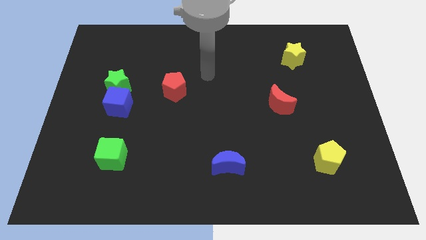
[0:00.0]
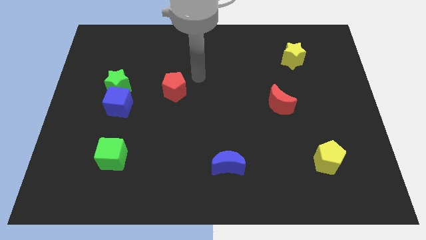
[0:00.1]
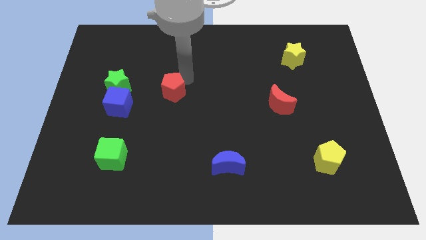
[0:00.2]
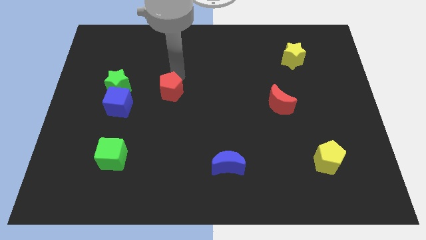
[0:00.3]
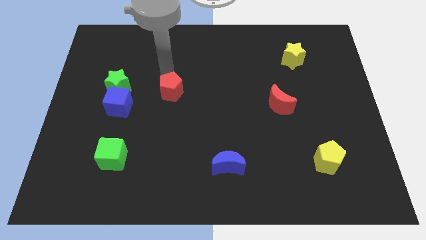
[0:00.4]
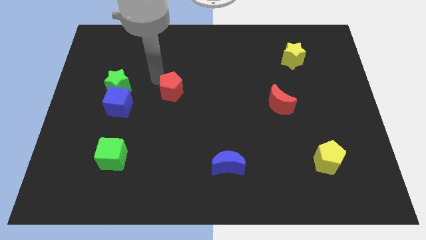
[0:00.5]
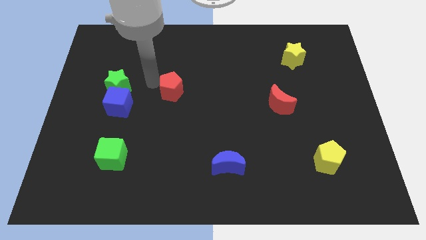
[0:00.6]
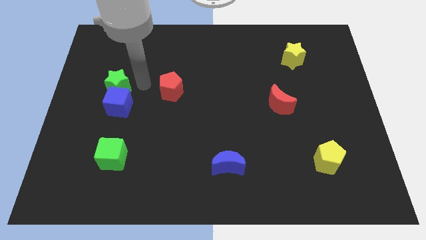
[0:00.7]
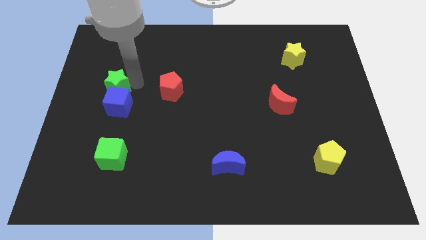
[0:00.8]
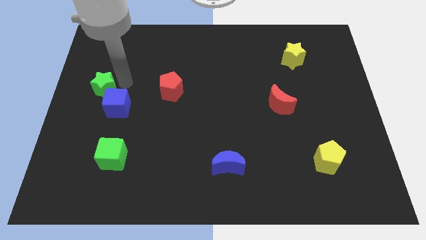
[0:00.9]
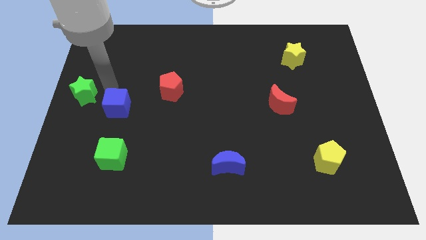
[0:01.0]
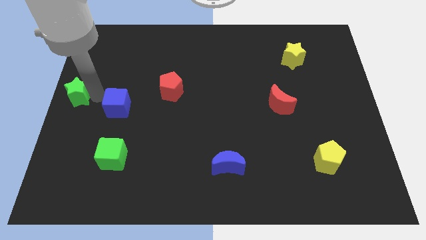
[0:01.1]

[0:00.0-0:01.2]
separate the blue cube from the green star

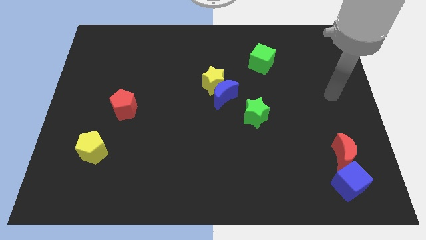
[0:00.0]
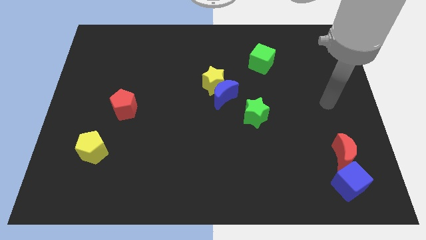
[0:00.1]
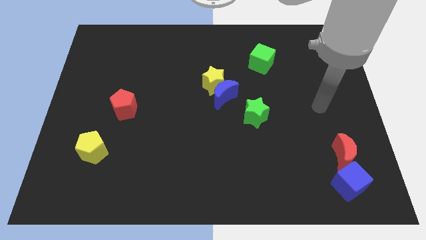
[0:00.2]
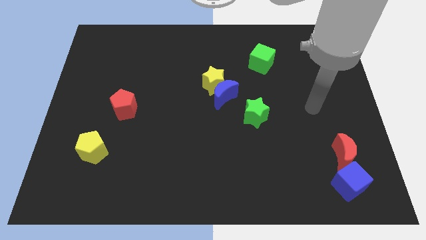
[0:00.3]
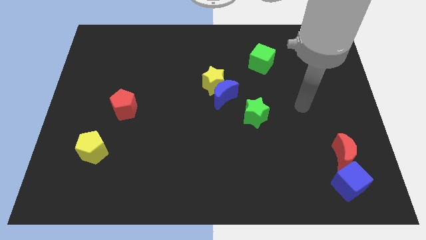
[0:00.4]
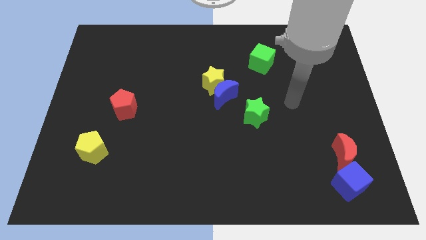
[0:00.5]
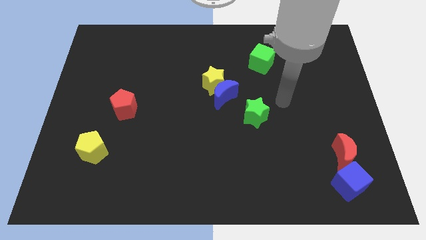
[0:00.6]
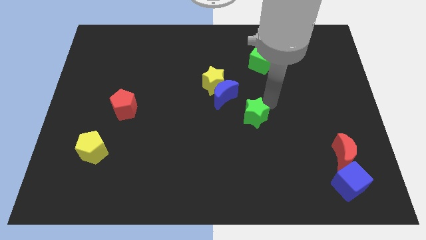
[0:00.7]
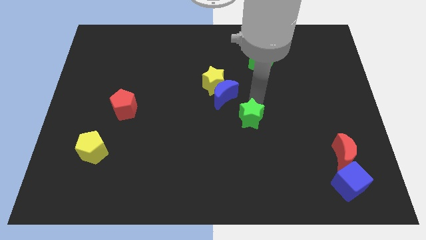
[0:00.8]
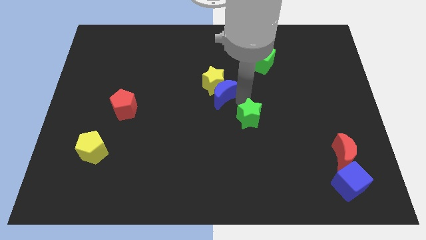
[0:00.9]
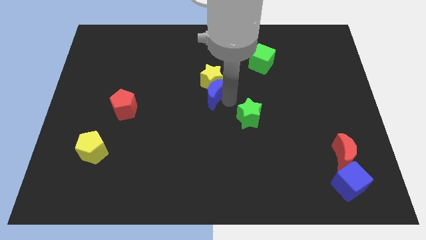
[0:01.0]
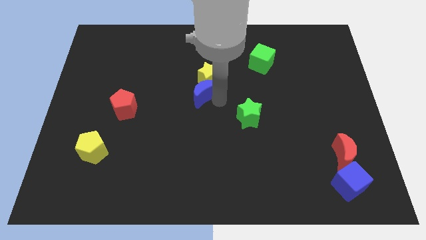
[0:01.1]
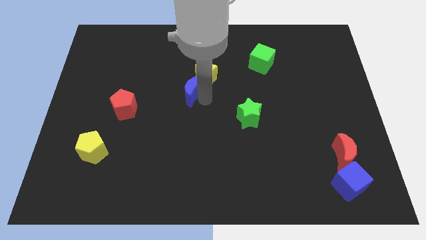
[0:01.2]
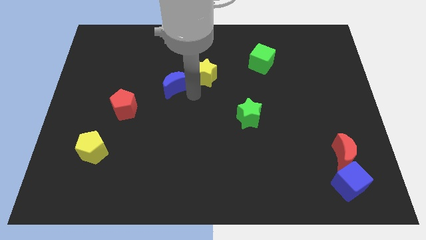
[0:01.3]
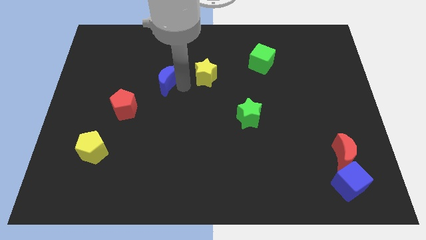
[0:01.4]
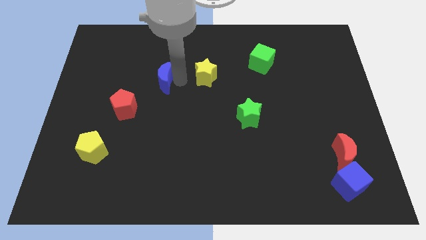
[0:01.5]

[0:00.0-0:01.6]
move the yellow star away from the blue moon

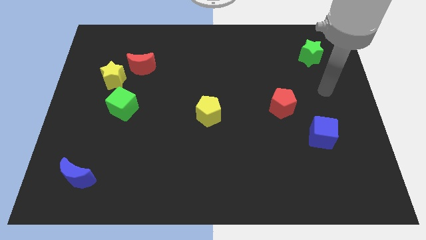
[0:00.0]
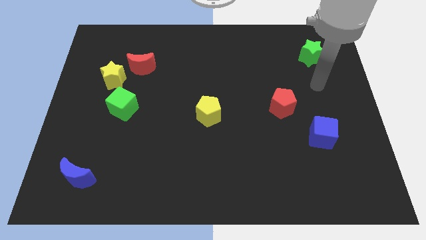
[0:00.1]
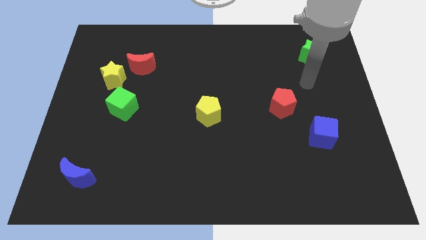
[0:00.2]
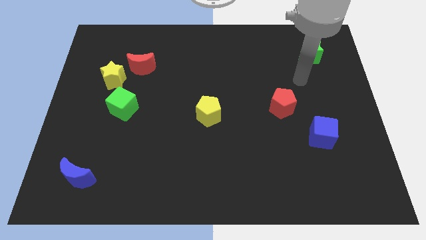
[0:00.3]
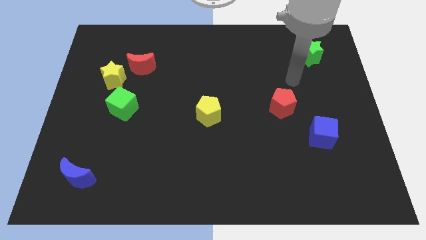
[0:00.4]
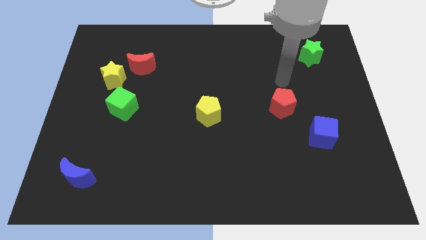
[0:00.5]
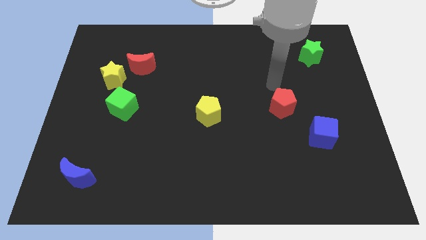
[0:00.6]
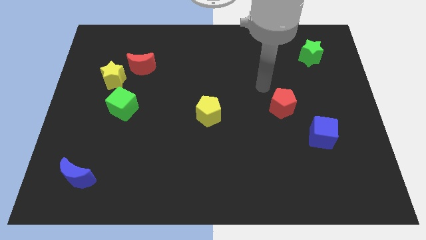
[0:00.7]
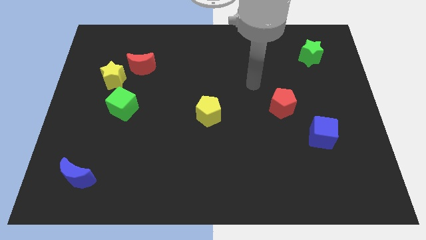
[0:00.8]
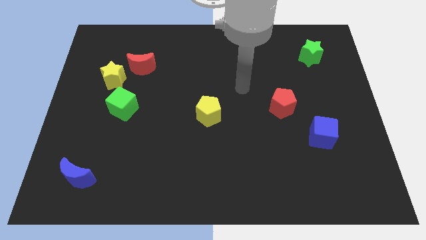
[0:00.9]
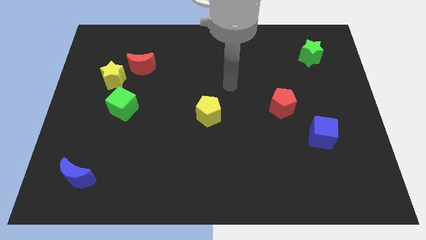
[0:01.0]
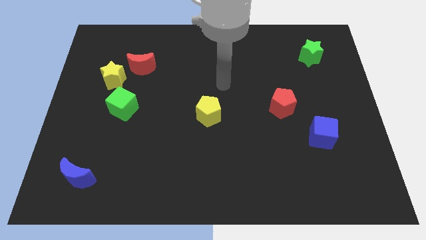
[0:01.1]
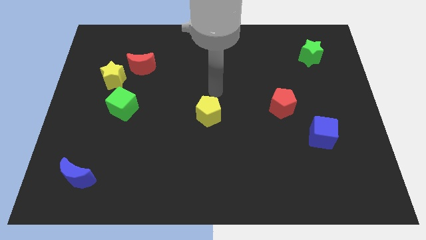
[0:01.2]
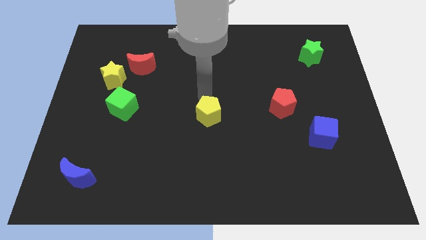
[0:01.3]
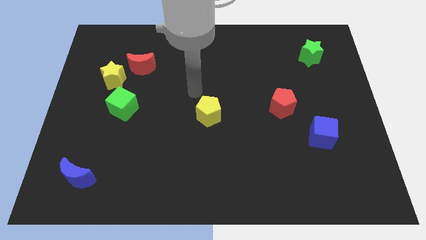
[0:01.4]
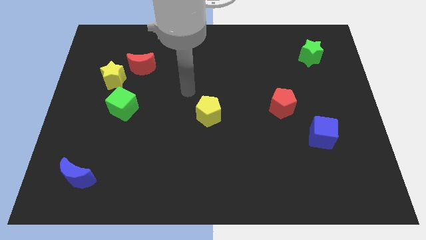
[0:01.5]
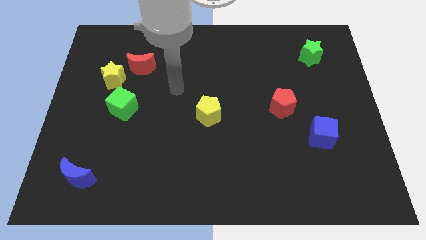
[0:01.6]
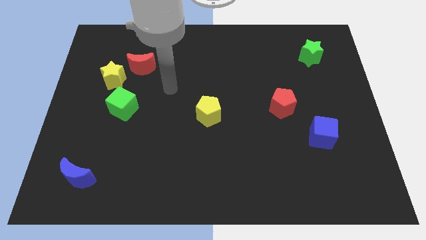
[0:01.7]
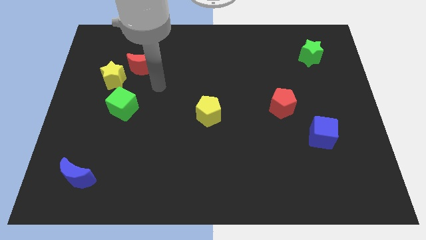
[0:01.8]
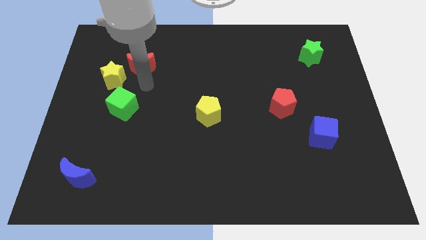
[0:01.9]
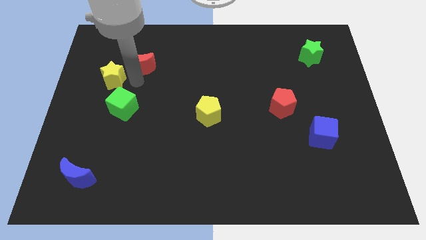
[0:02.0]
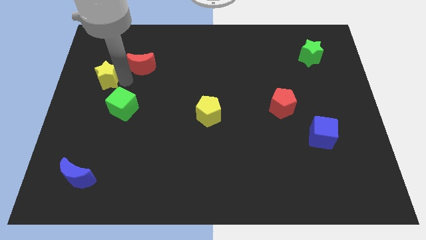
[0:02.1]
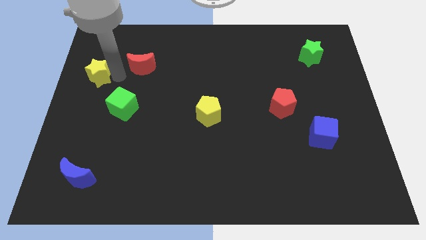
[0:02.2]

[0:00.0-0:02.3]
separate the red moon from the yellow star

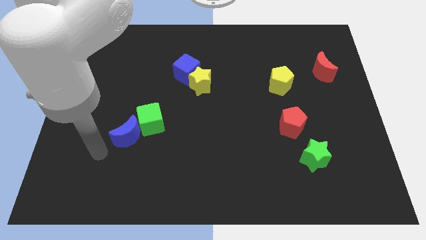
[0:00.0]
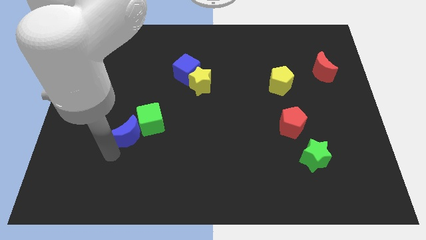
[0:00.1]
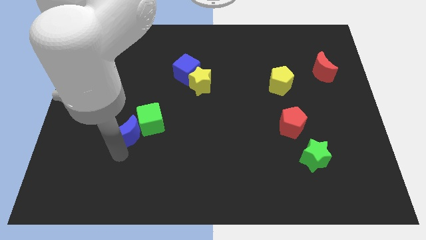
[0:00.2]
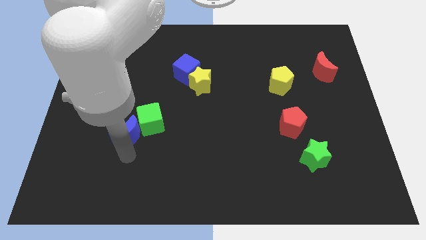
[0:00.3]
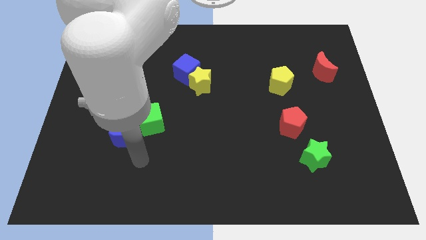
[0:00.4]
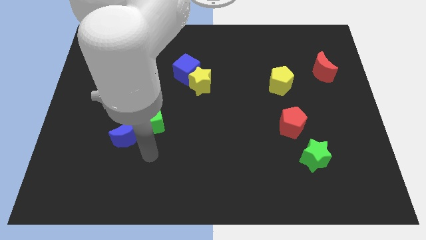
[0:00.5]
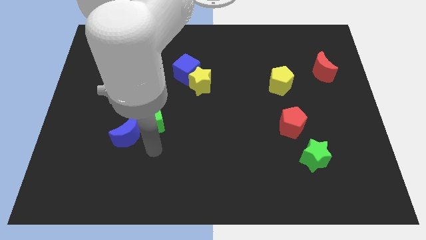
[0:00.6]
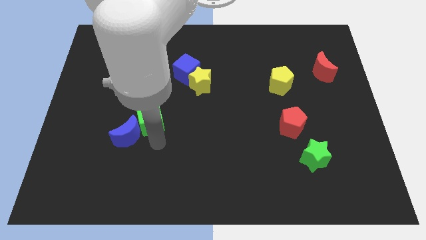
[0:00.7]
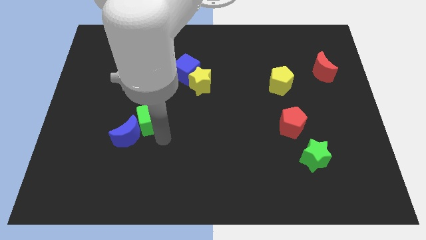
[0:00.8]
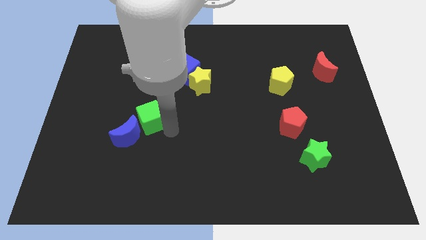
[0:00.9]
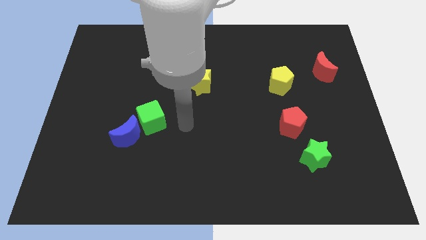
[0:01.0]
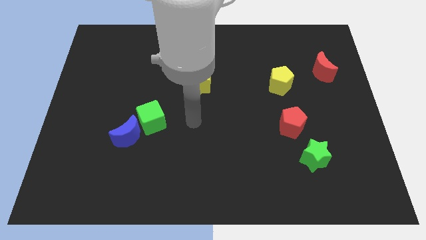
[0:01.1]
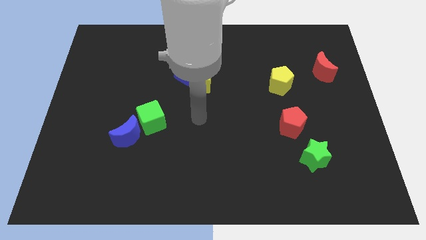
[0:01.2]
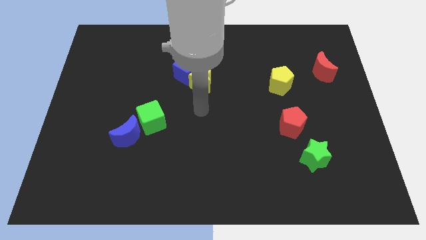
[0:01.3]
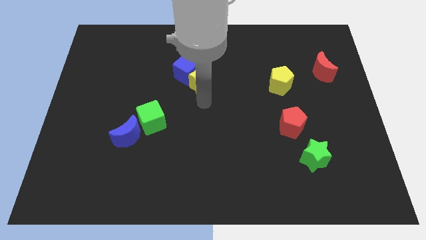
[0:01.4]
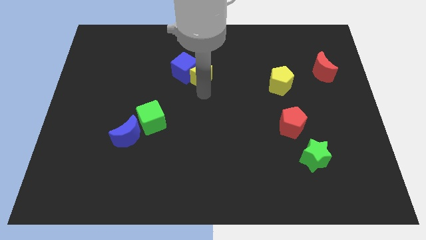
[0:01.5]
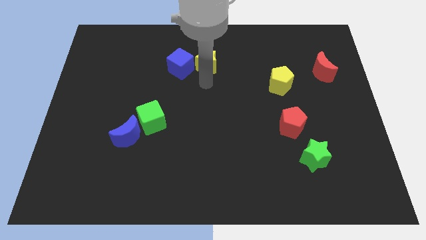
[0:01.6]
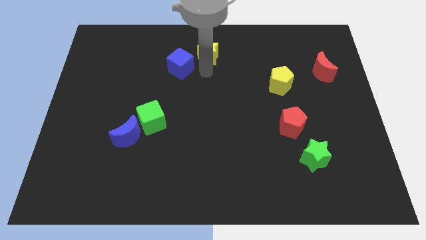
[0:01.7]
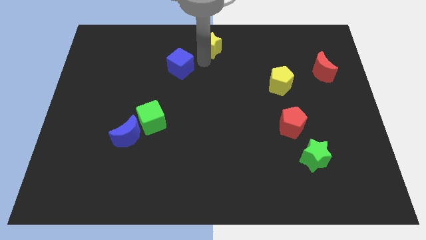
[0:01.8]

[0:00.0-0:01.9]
move the blue cube away from the yellow star

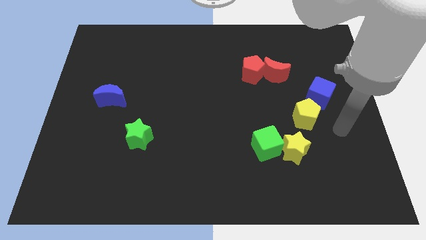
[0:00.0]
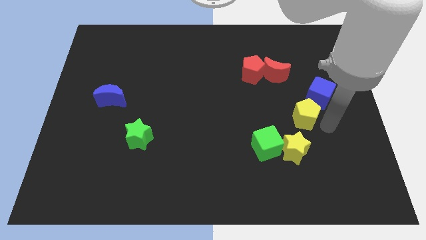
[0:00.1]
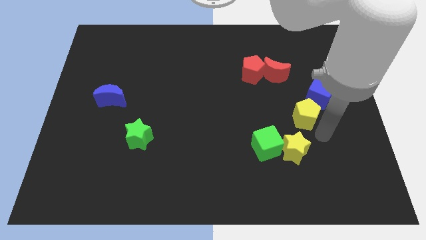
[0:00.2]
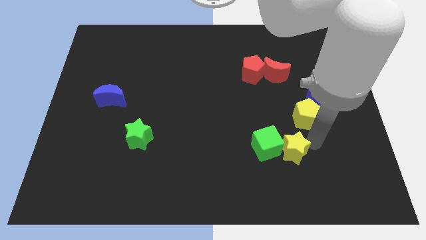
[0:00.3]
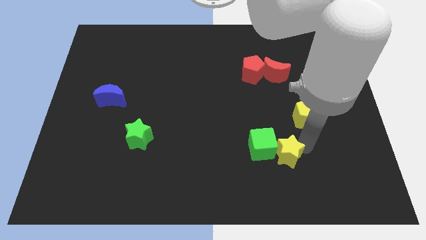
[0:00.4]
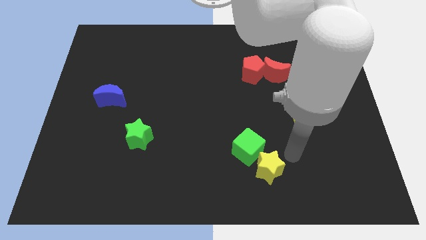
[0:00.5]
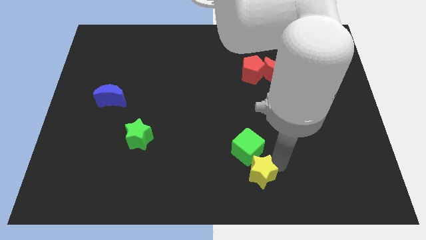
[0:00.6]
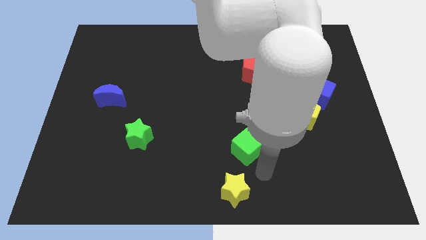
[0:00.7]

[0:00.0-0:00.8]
pull the green cube apart from the yellow star

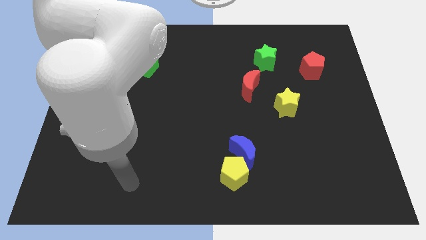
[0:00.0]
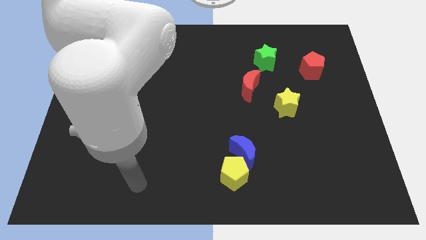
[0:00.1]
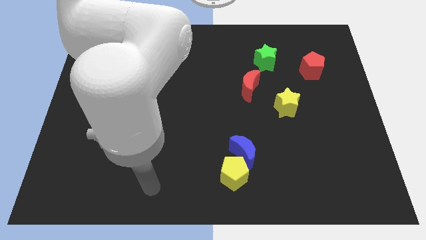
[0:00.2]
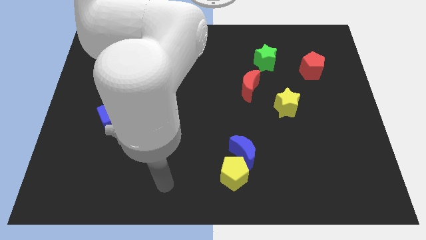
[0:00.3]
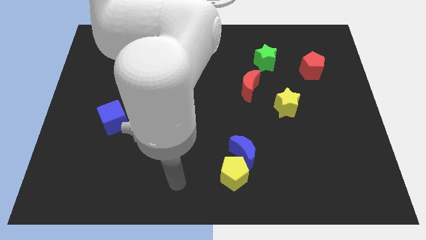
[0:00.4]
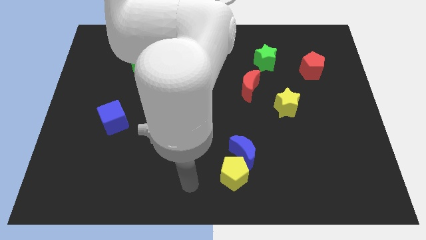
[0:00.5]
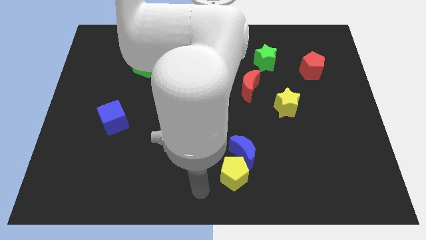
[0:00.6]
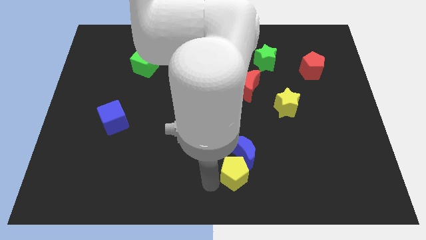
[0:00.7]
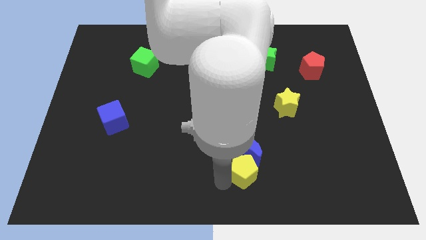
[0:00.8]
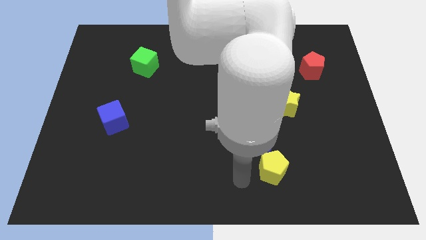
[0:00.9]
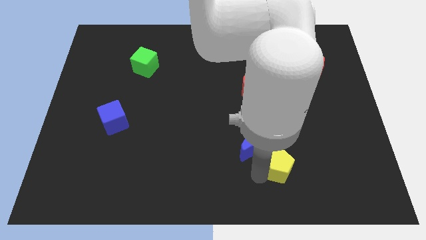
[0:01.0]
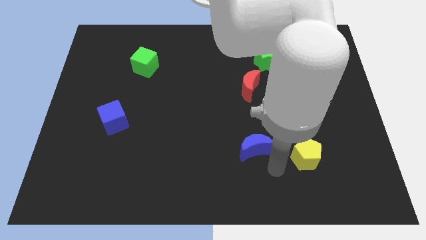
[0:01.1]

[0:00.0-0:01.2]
move the blue moon away from the yellow pentagon

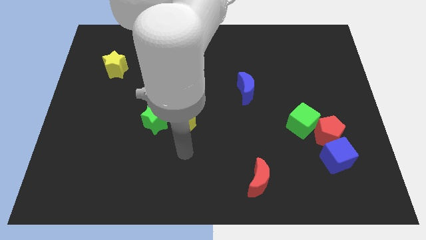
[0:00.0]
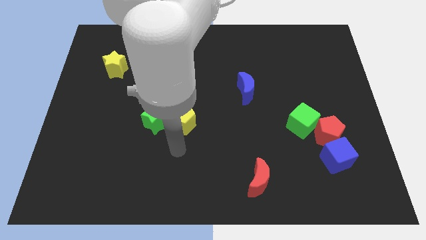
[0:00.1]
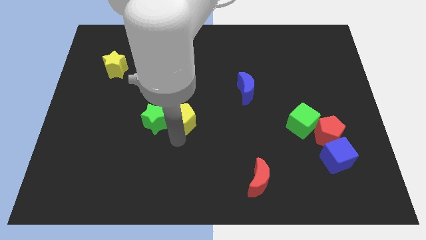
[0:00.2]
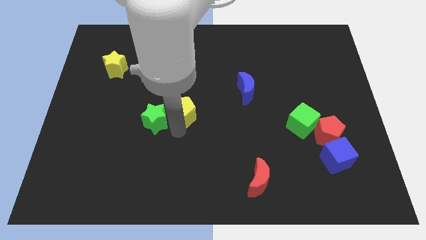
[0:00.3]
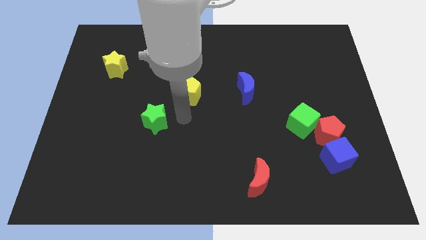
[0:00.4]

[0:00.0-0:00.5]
separate the green star from the yellow pentagon
